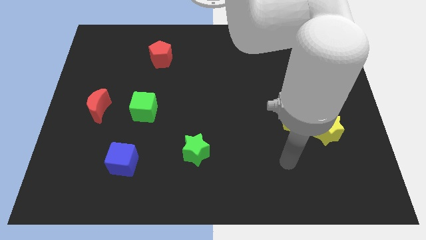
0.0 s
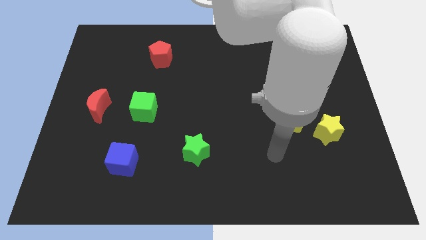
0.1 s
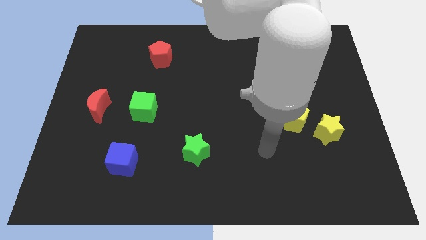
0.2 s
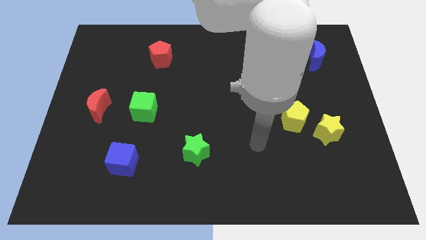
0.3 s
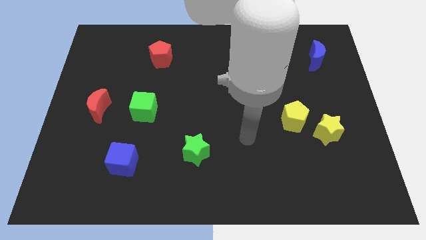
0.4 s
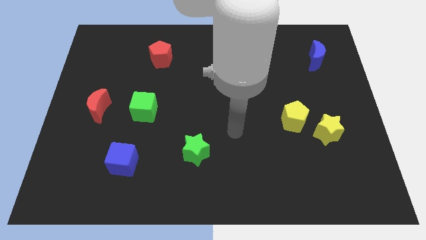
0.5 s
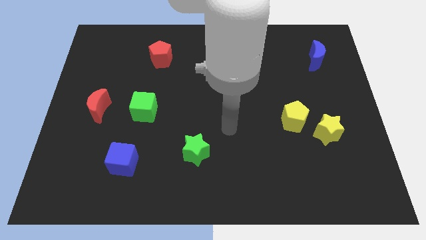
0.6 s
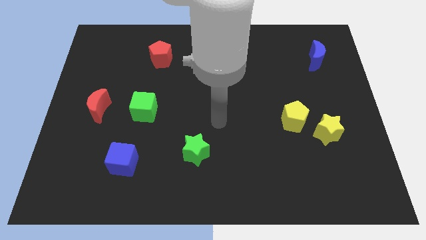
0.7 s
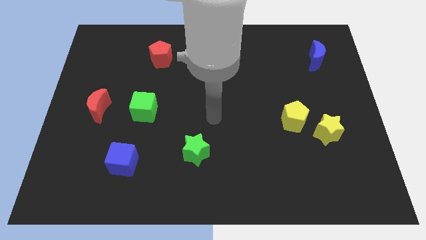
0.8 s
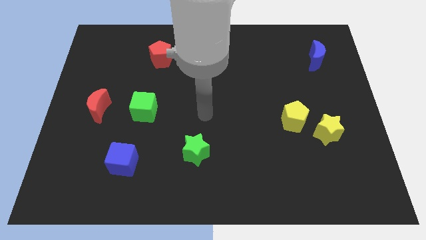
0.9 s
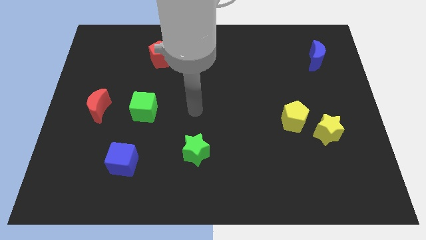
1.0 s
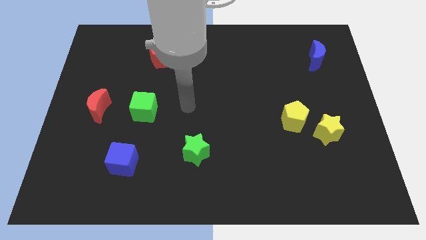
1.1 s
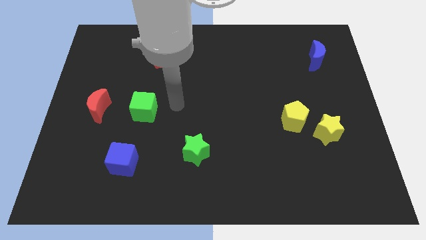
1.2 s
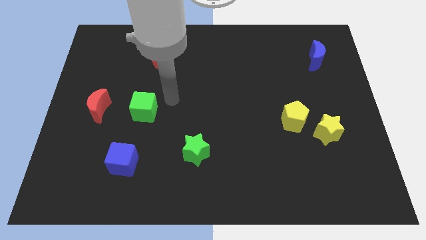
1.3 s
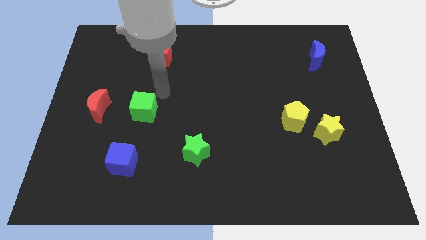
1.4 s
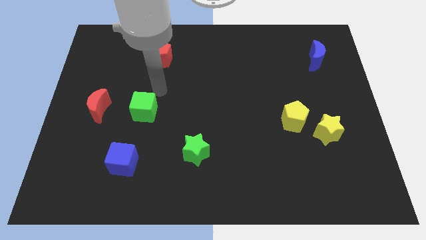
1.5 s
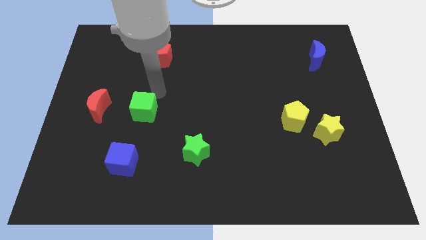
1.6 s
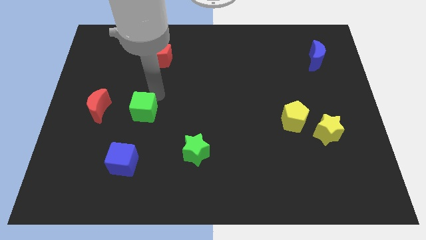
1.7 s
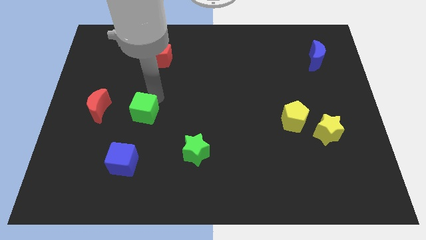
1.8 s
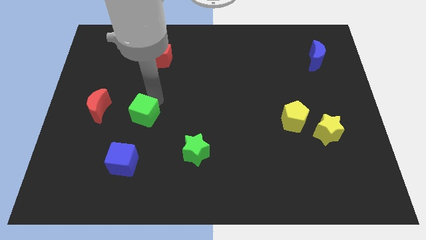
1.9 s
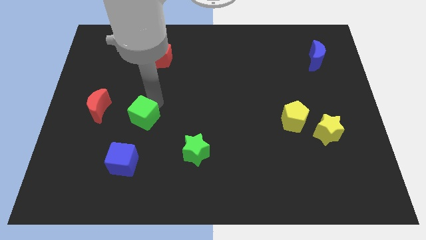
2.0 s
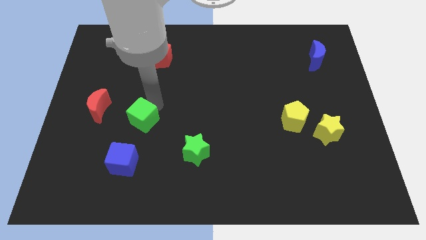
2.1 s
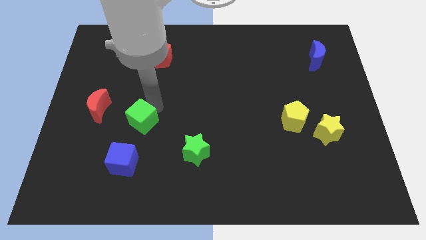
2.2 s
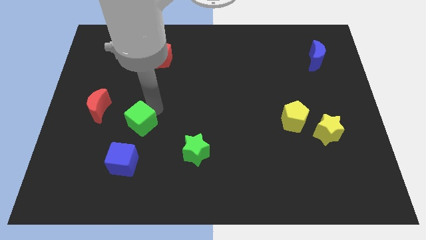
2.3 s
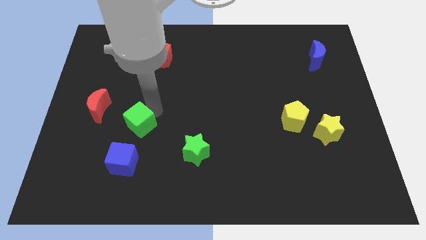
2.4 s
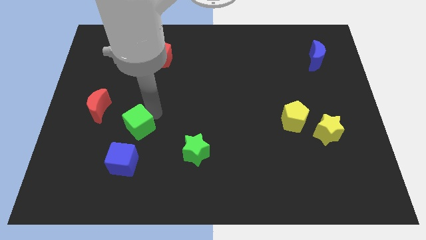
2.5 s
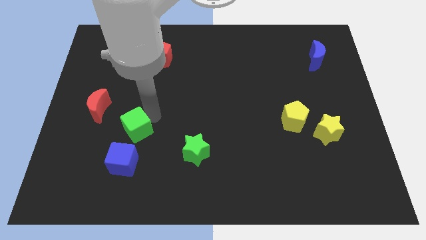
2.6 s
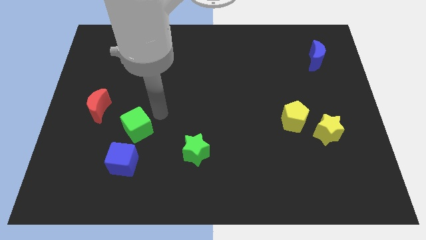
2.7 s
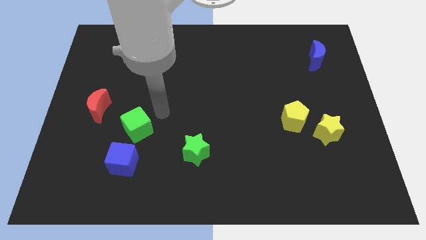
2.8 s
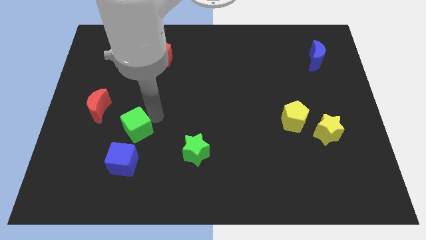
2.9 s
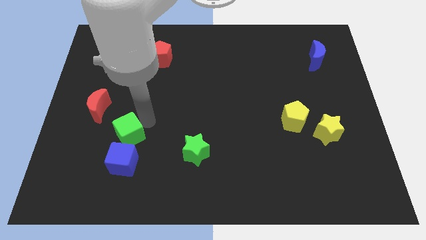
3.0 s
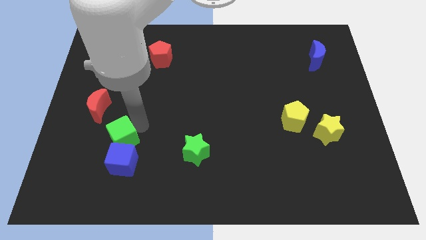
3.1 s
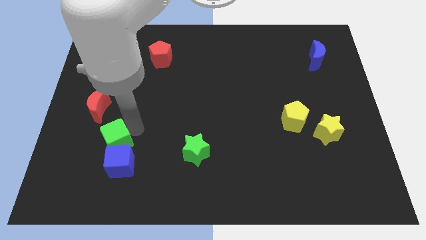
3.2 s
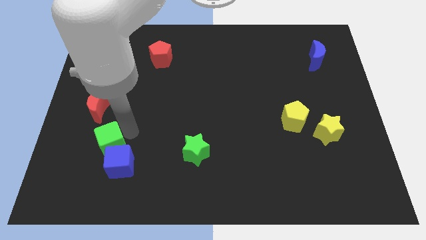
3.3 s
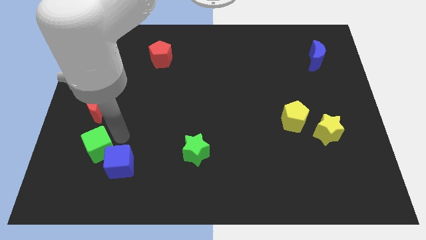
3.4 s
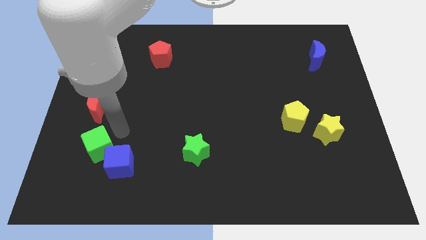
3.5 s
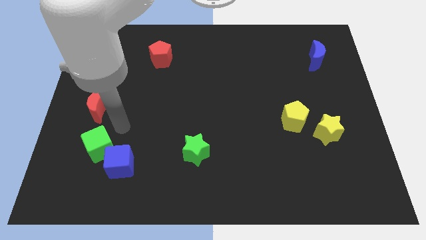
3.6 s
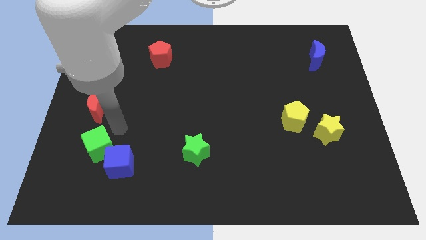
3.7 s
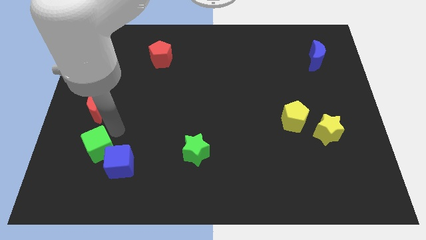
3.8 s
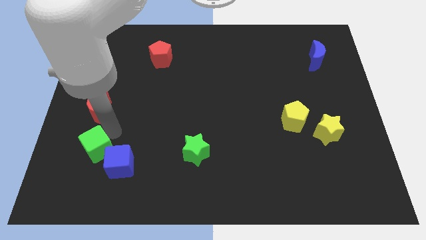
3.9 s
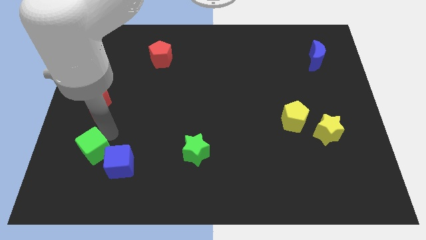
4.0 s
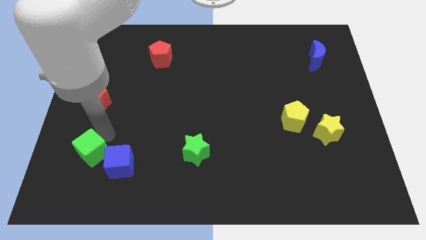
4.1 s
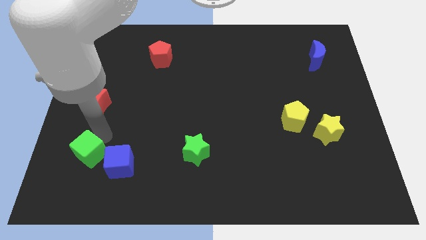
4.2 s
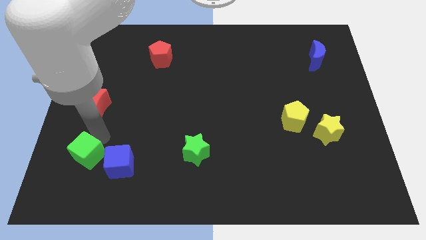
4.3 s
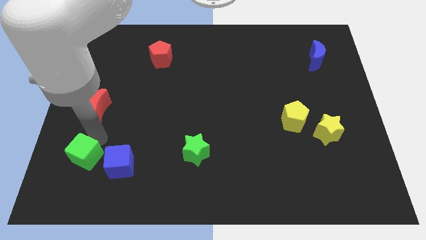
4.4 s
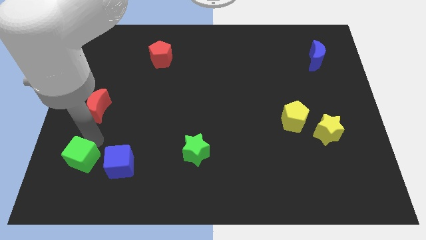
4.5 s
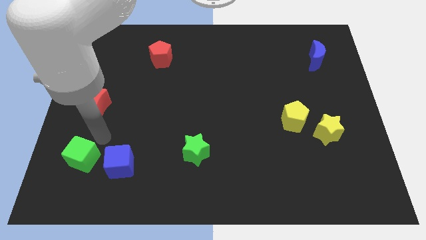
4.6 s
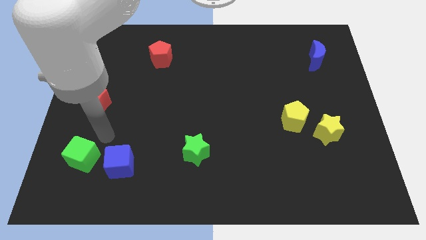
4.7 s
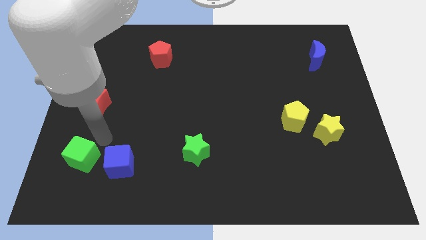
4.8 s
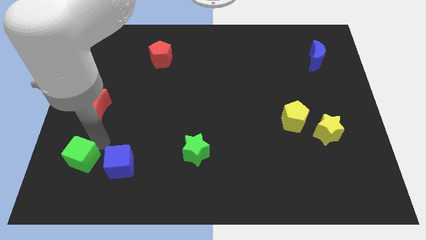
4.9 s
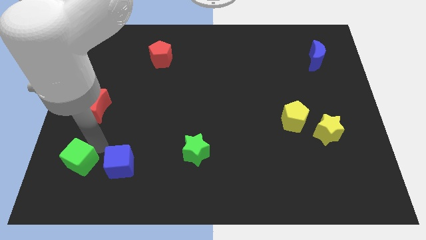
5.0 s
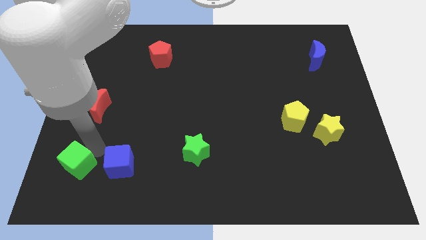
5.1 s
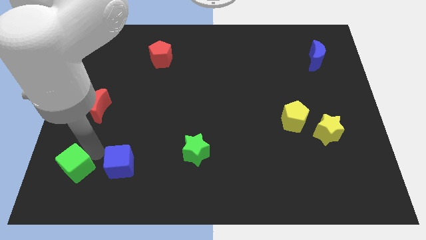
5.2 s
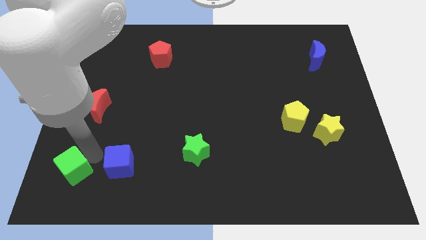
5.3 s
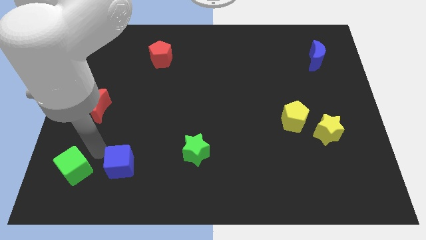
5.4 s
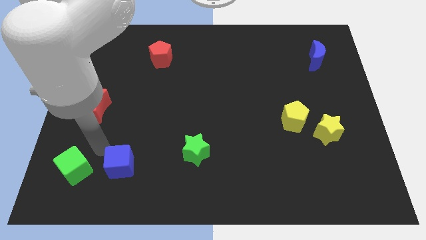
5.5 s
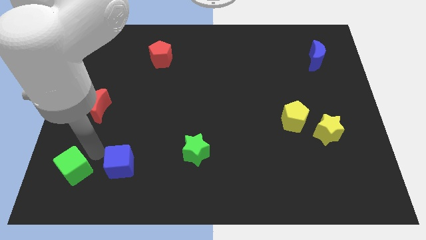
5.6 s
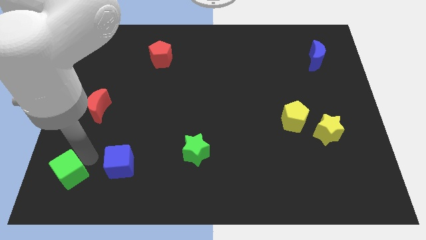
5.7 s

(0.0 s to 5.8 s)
slide the green cube to the bottom left corner

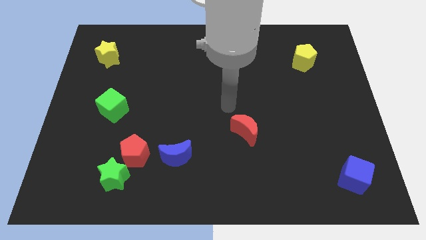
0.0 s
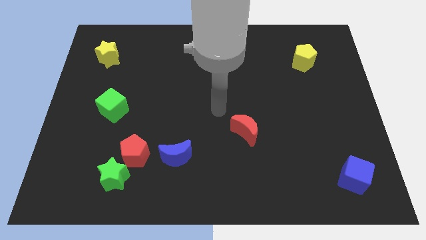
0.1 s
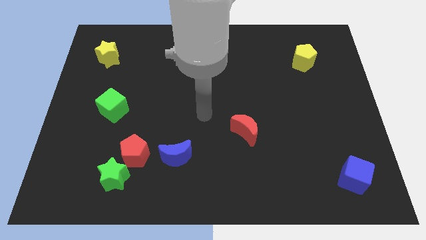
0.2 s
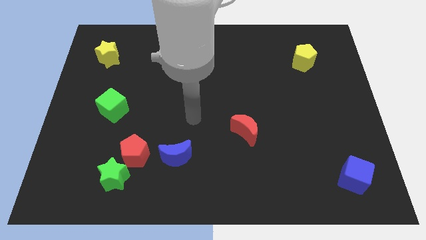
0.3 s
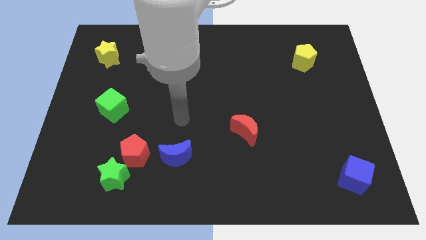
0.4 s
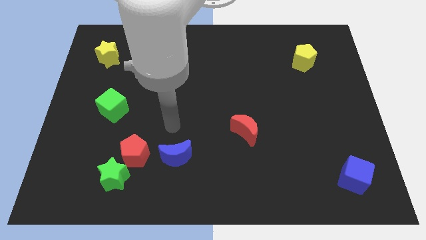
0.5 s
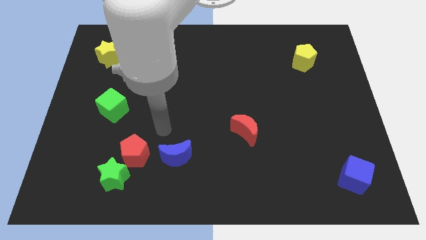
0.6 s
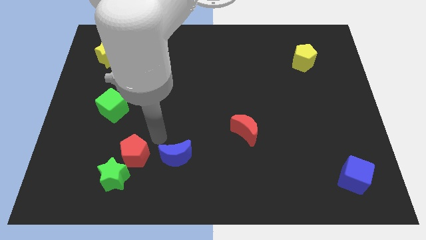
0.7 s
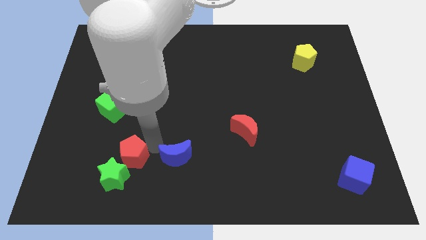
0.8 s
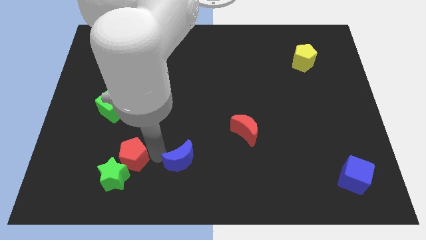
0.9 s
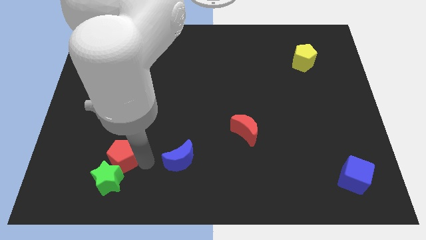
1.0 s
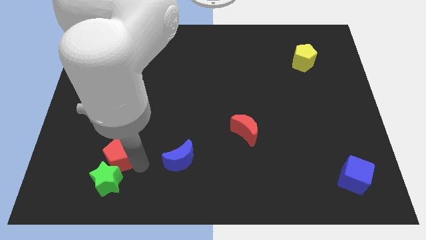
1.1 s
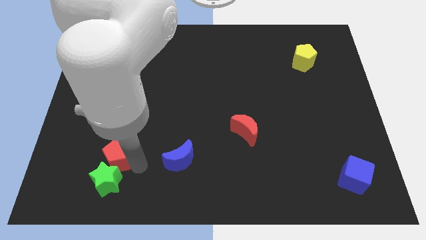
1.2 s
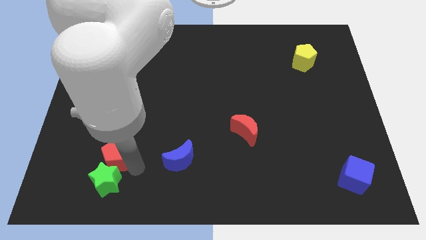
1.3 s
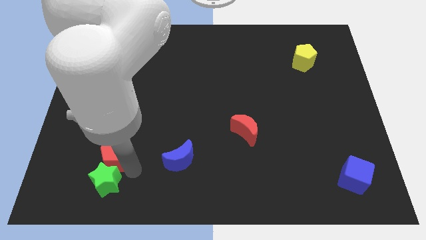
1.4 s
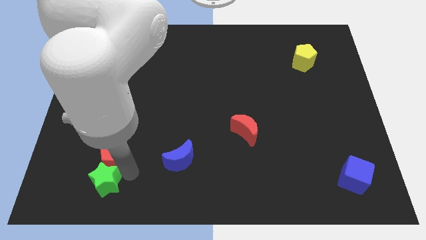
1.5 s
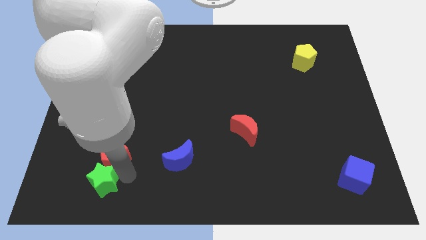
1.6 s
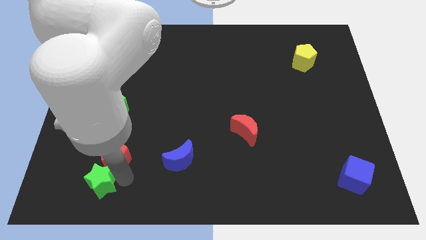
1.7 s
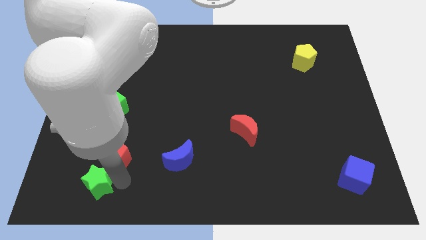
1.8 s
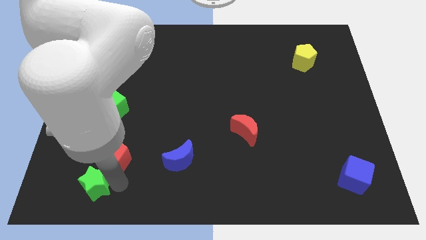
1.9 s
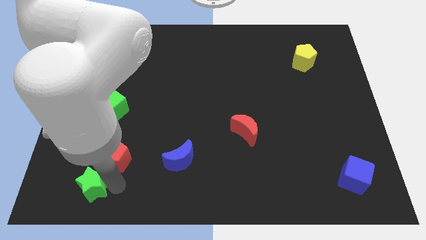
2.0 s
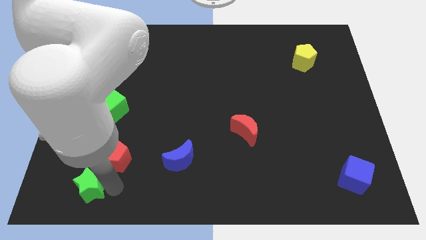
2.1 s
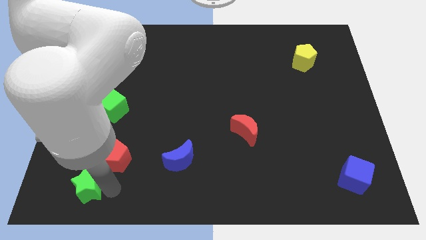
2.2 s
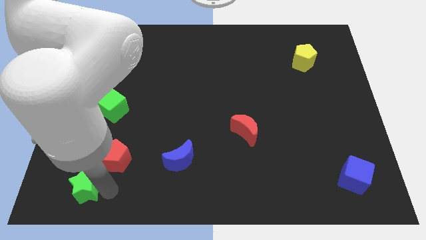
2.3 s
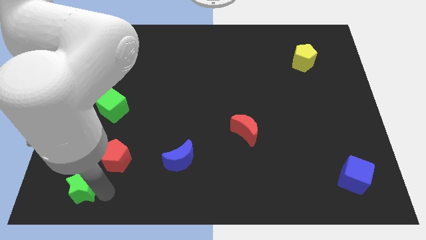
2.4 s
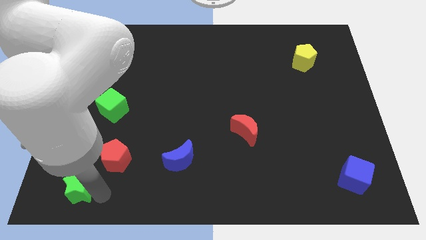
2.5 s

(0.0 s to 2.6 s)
move the green star to the bottom left
